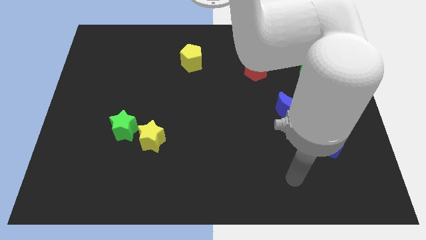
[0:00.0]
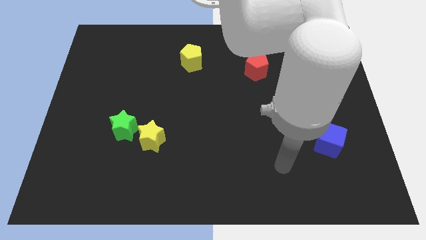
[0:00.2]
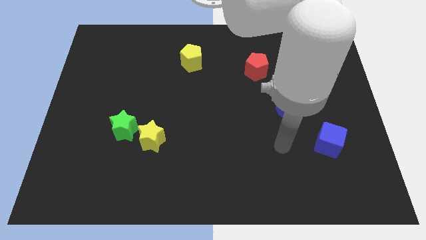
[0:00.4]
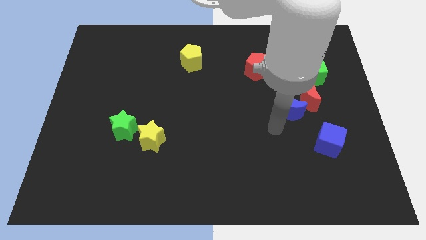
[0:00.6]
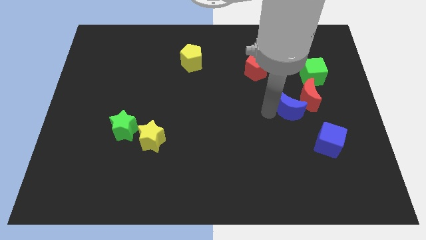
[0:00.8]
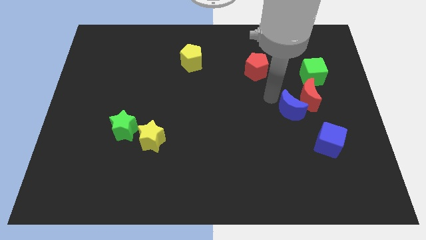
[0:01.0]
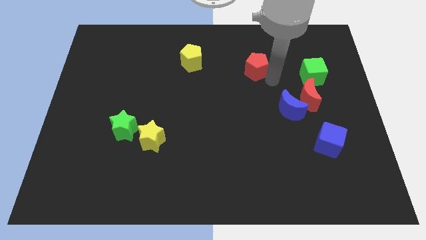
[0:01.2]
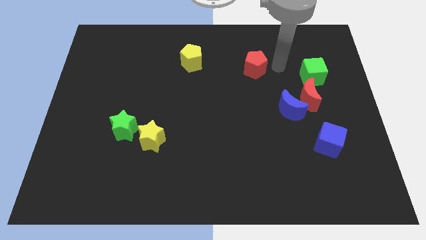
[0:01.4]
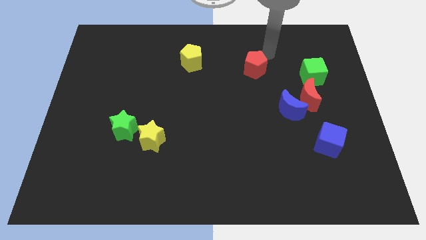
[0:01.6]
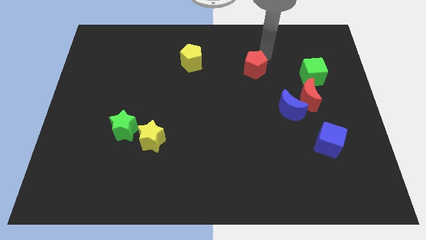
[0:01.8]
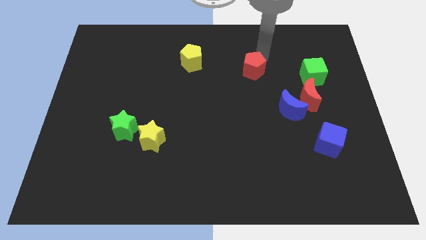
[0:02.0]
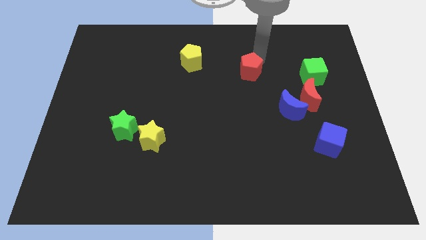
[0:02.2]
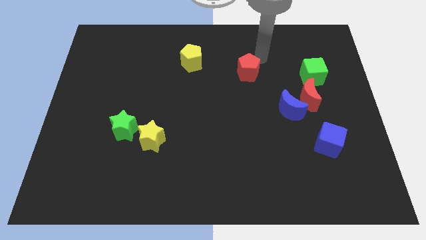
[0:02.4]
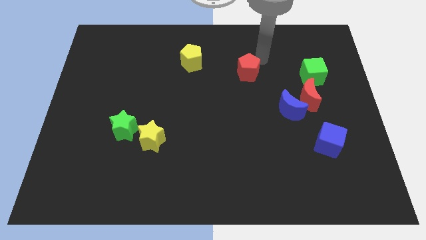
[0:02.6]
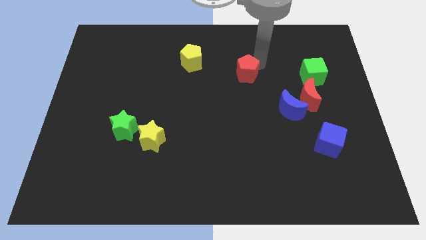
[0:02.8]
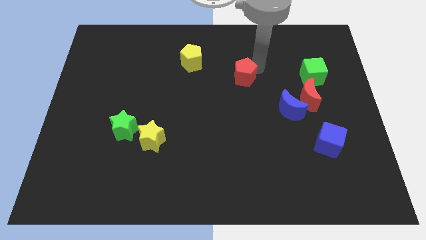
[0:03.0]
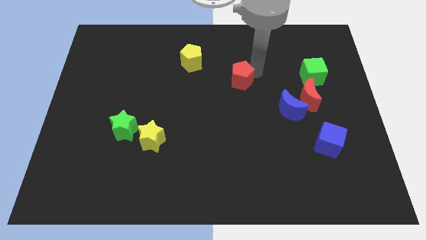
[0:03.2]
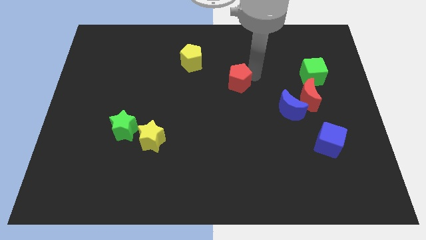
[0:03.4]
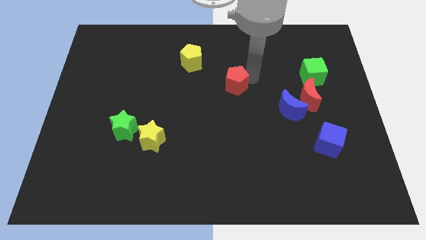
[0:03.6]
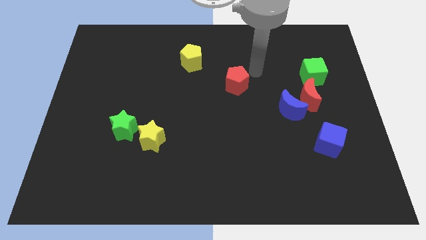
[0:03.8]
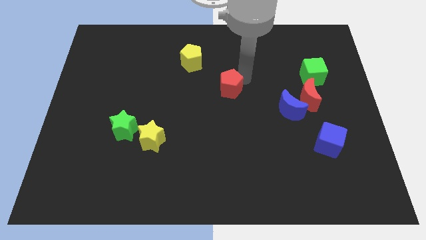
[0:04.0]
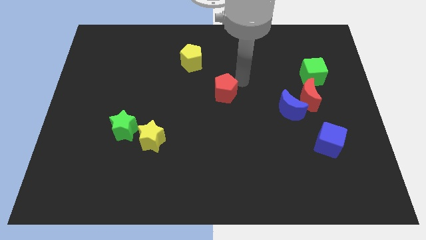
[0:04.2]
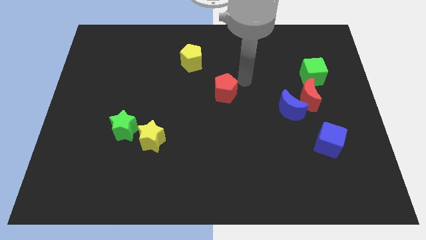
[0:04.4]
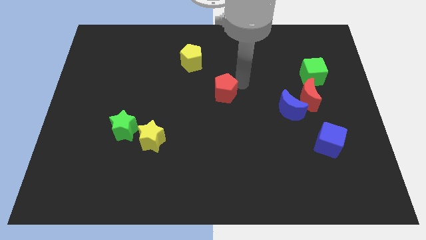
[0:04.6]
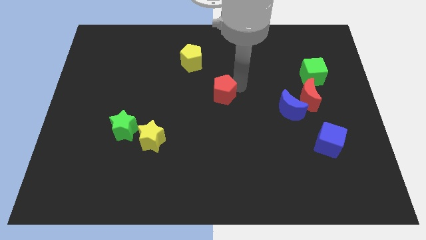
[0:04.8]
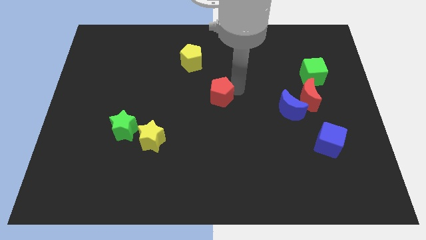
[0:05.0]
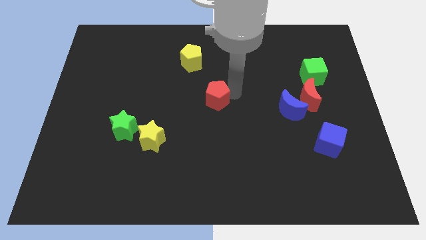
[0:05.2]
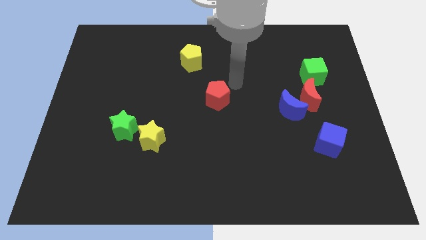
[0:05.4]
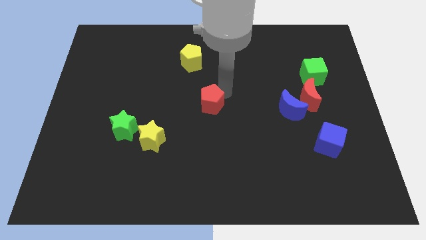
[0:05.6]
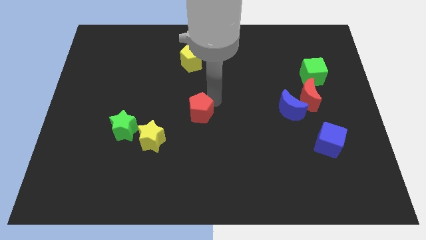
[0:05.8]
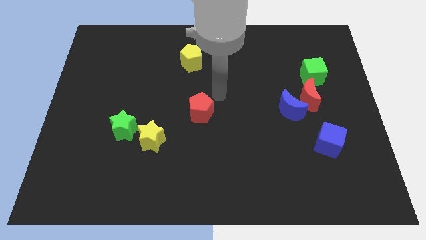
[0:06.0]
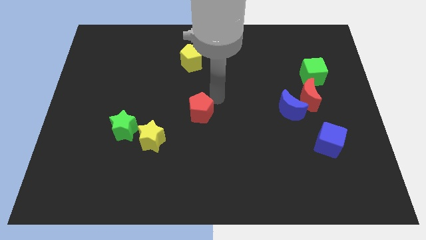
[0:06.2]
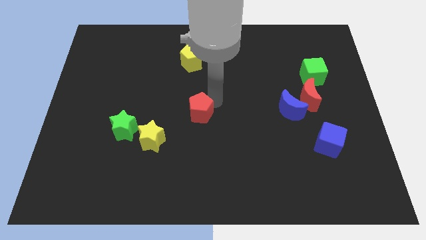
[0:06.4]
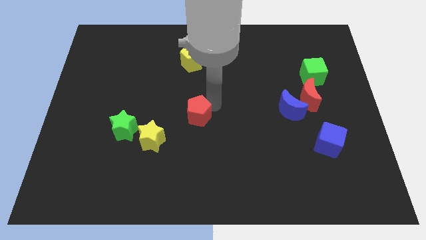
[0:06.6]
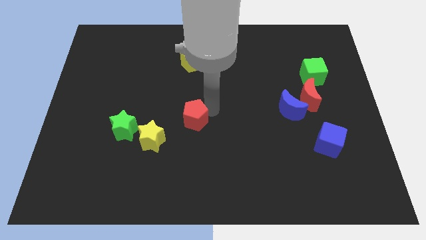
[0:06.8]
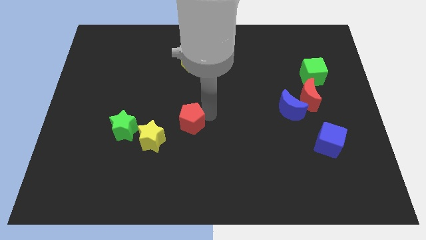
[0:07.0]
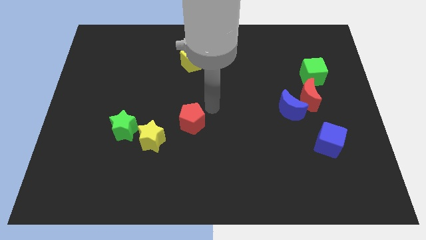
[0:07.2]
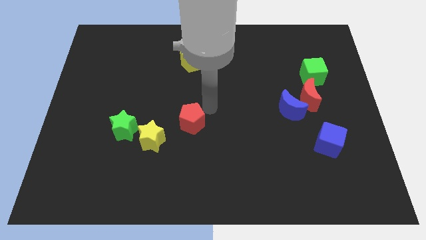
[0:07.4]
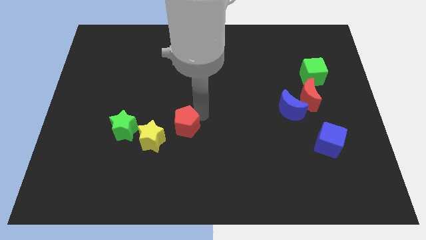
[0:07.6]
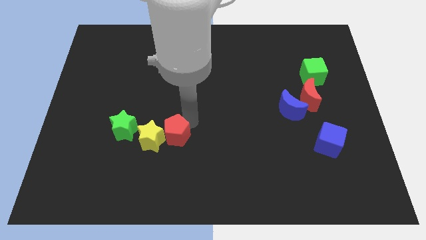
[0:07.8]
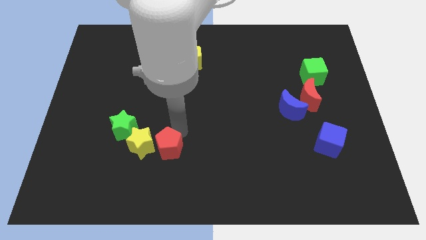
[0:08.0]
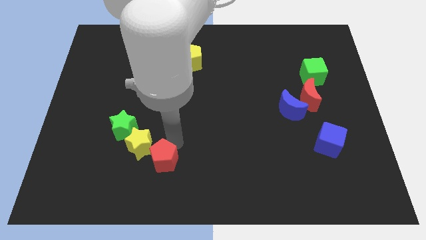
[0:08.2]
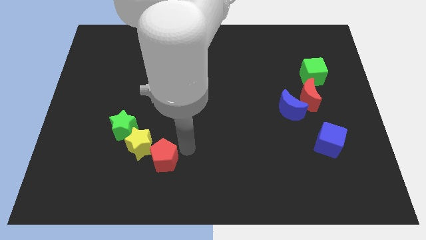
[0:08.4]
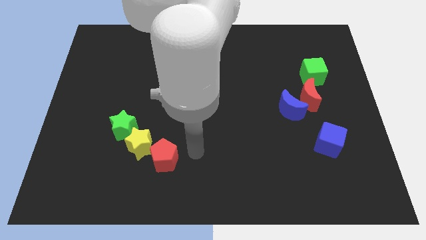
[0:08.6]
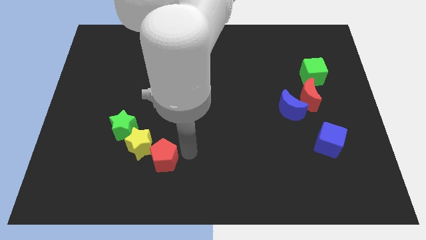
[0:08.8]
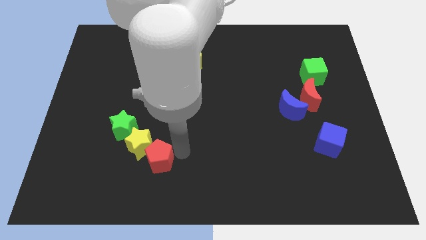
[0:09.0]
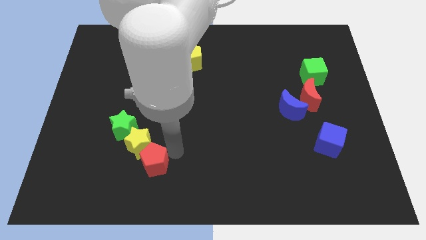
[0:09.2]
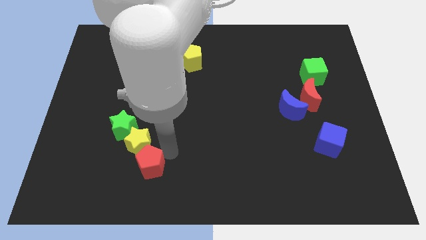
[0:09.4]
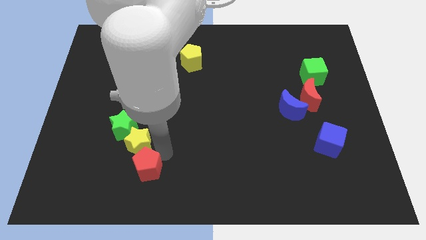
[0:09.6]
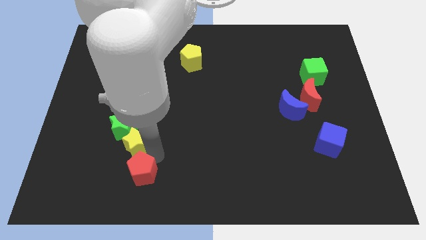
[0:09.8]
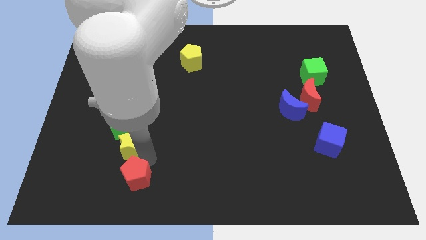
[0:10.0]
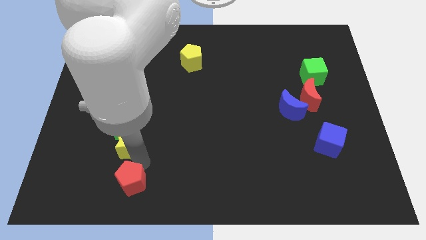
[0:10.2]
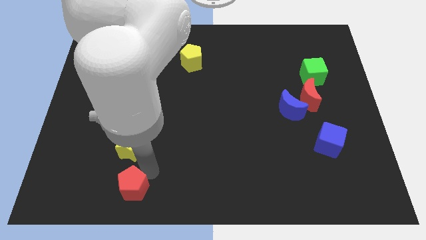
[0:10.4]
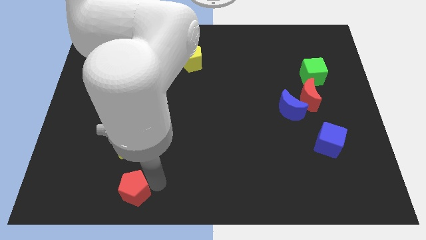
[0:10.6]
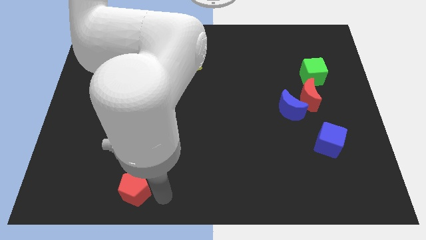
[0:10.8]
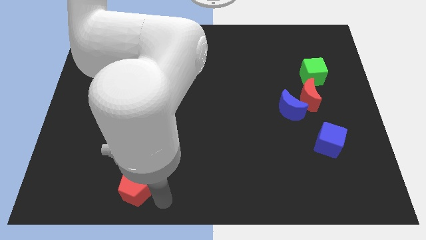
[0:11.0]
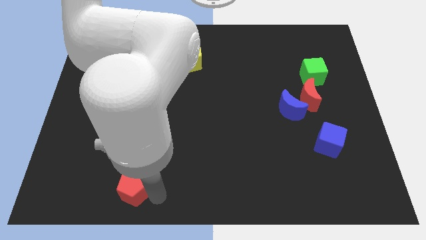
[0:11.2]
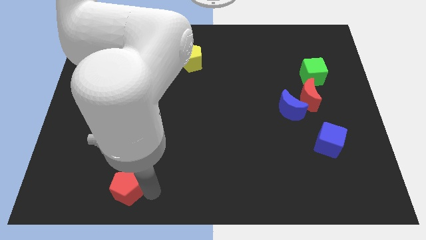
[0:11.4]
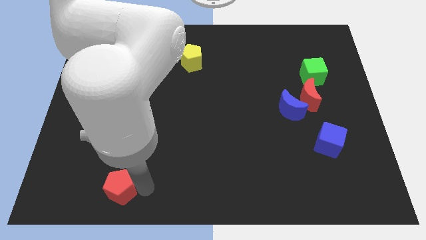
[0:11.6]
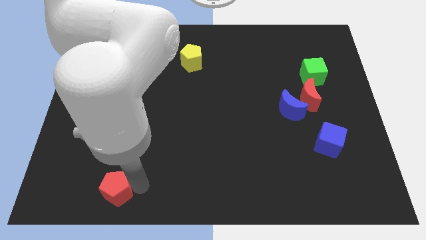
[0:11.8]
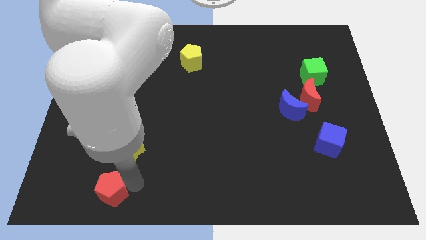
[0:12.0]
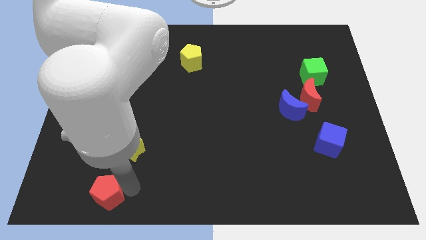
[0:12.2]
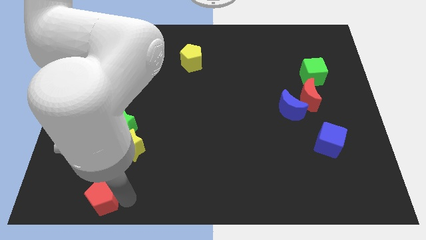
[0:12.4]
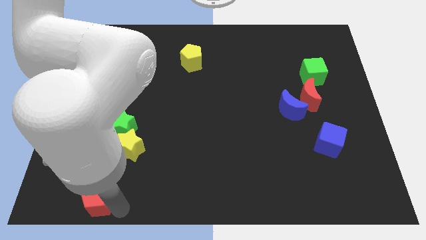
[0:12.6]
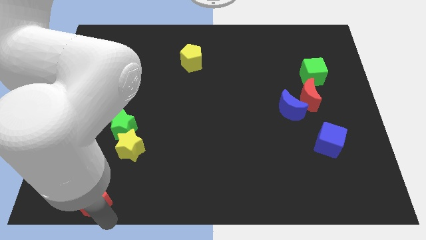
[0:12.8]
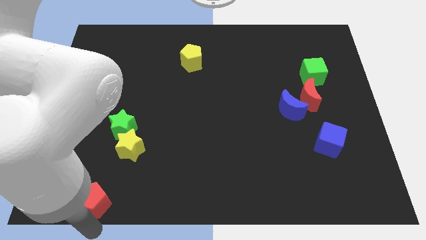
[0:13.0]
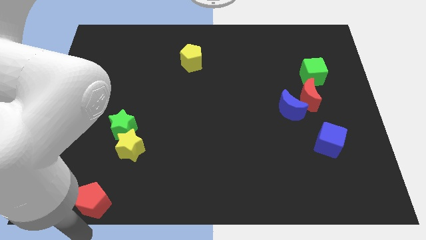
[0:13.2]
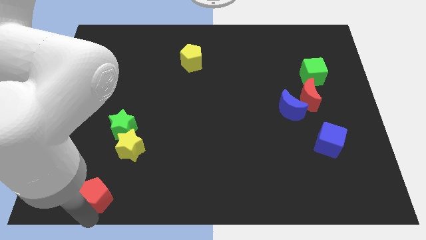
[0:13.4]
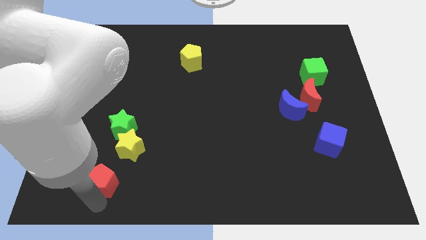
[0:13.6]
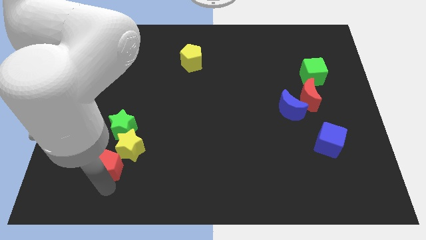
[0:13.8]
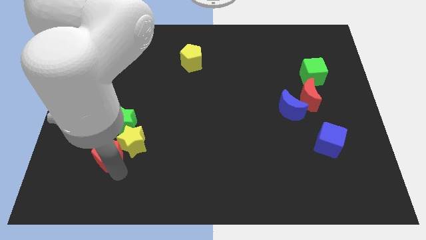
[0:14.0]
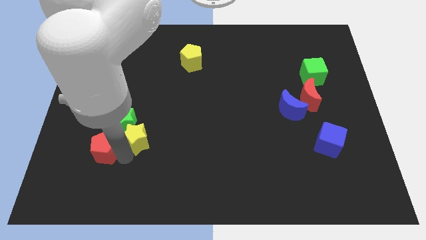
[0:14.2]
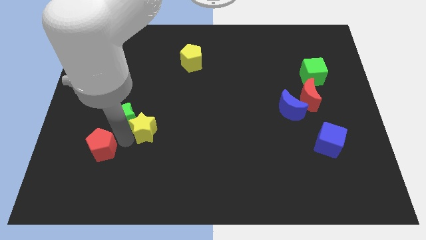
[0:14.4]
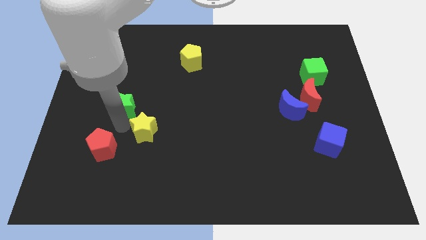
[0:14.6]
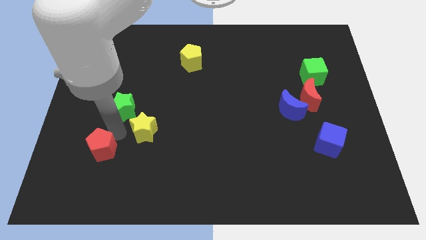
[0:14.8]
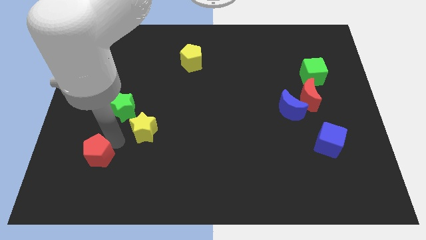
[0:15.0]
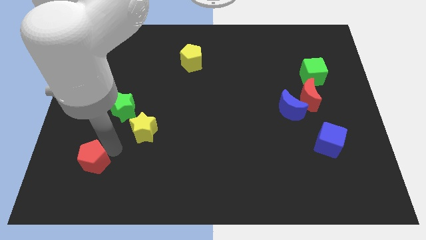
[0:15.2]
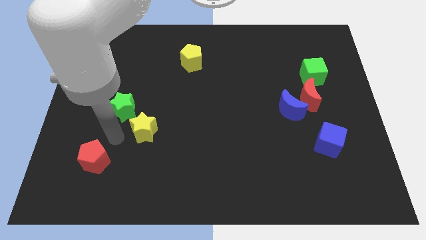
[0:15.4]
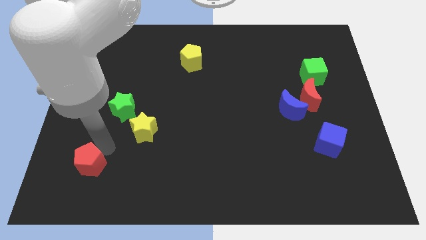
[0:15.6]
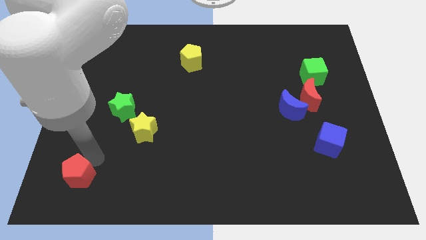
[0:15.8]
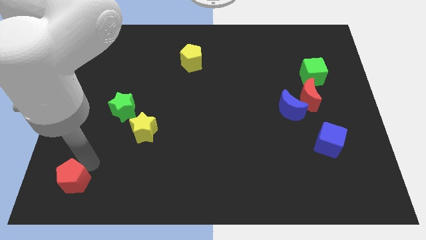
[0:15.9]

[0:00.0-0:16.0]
move the red pentagon to the bottom left corner
